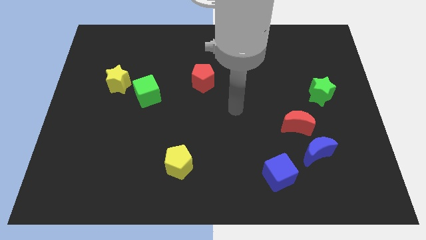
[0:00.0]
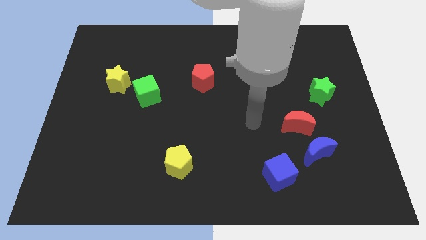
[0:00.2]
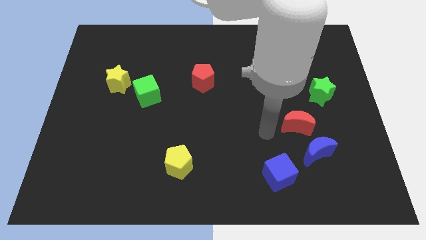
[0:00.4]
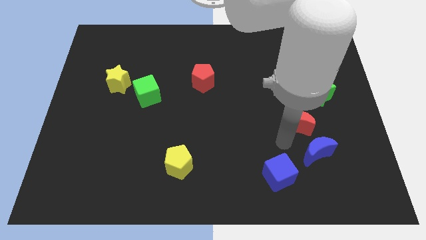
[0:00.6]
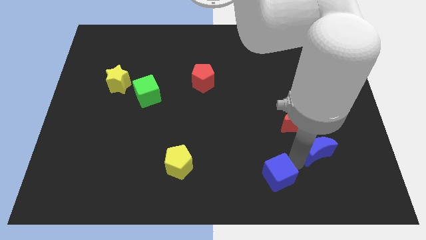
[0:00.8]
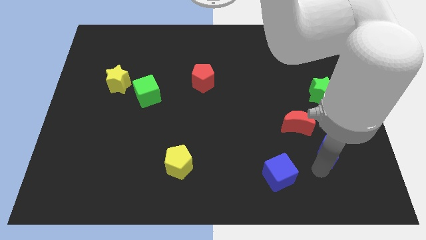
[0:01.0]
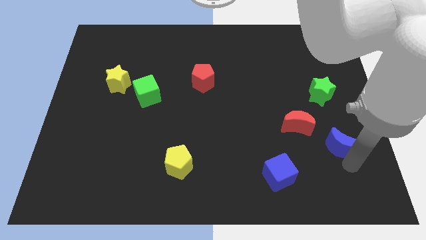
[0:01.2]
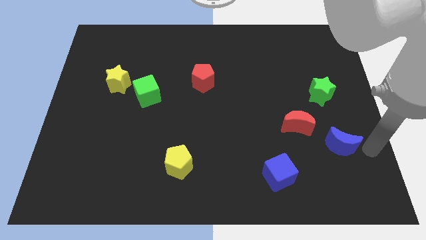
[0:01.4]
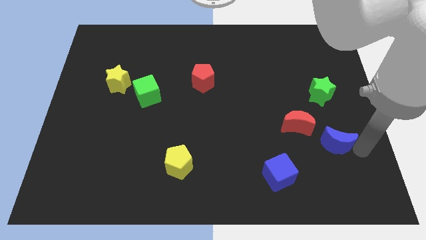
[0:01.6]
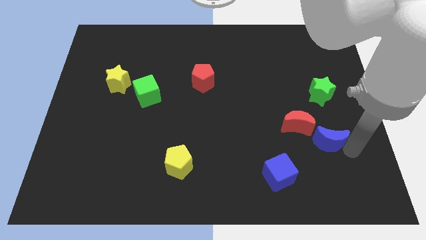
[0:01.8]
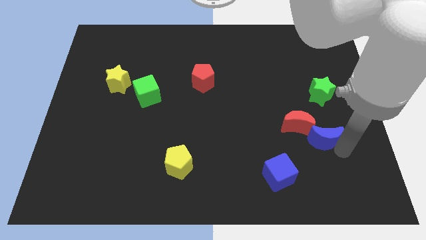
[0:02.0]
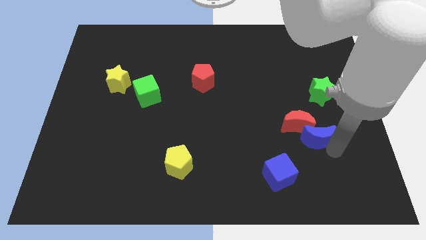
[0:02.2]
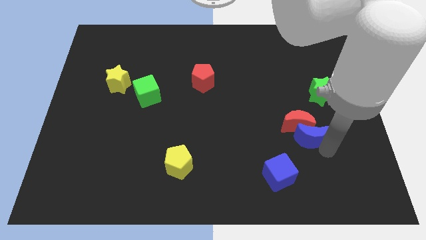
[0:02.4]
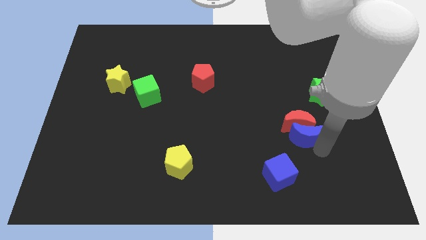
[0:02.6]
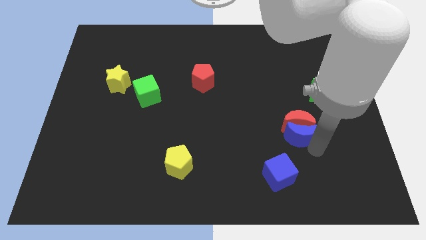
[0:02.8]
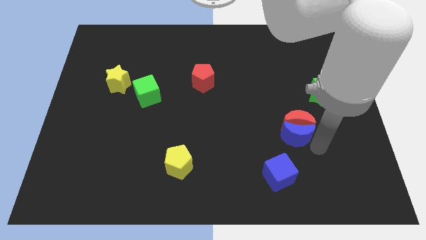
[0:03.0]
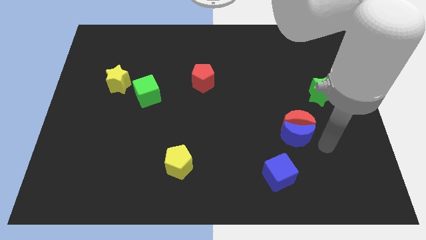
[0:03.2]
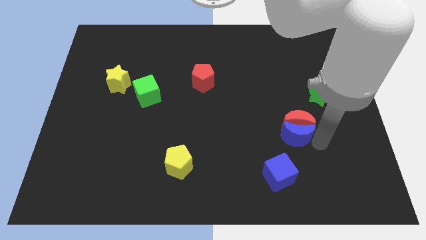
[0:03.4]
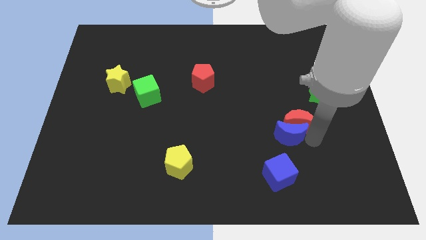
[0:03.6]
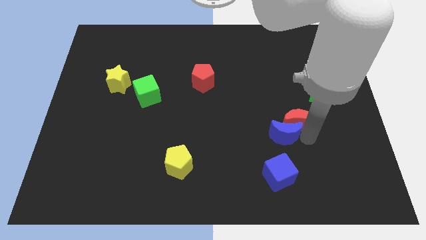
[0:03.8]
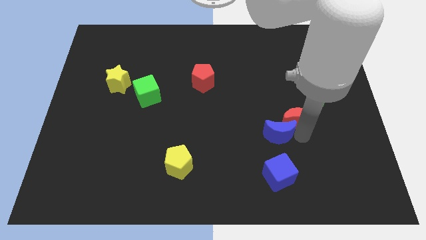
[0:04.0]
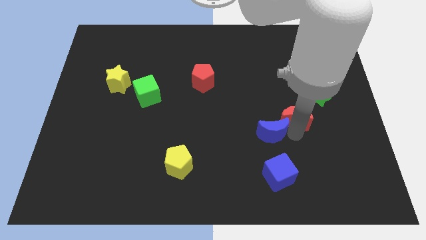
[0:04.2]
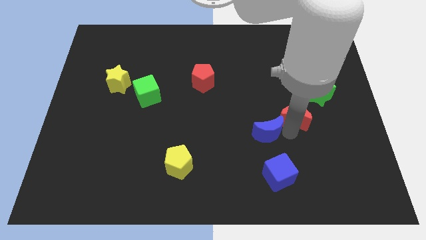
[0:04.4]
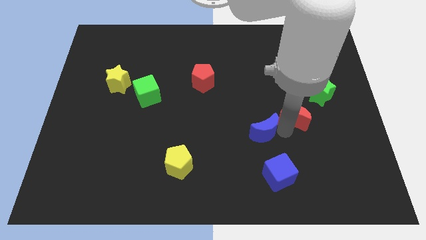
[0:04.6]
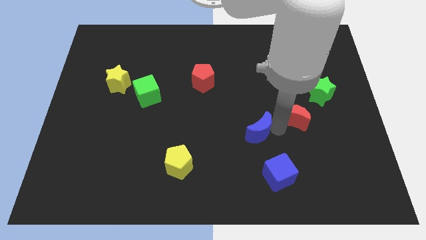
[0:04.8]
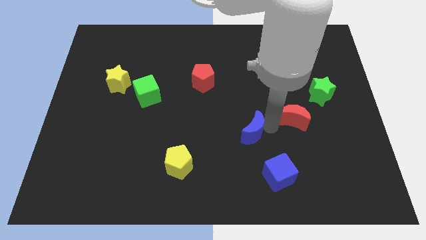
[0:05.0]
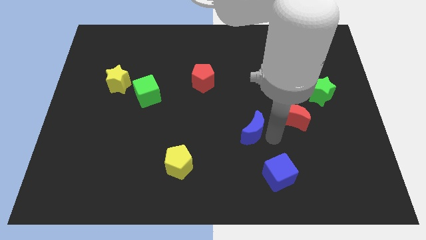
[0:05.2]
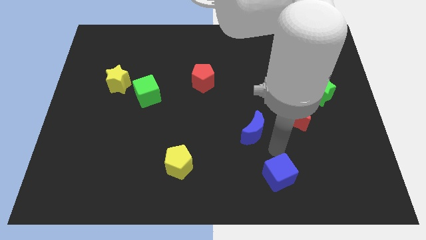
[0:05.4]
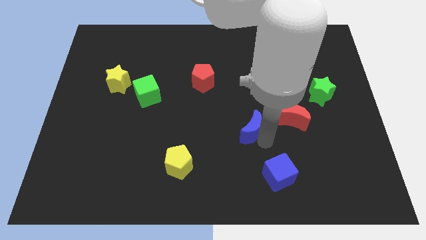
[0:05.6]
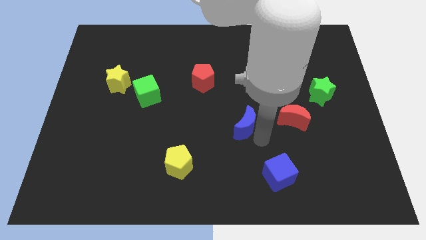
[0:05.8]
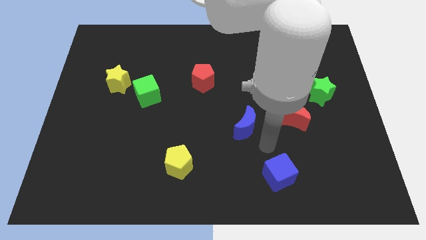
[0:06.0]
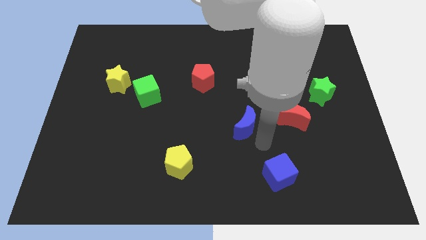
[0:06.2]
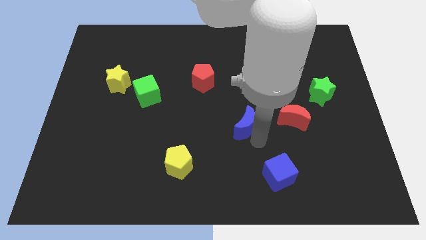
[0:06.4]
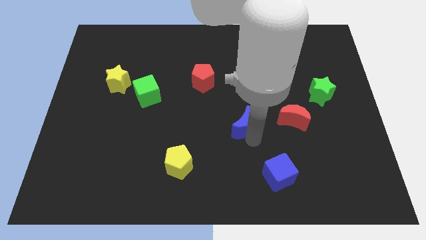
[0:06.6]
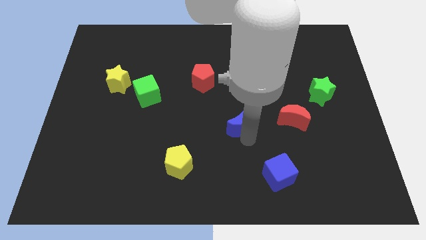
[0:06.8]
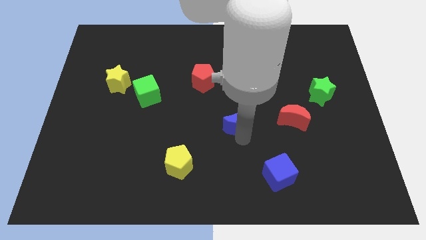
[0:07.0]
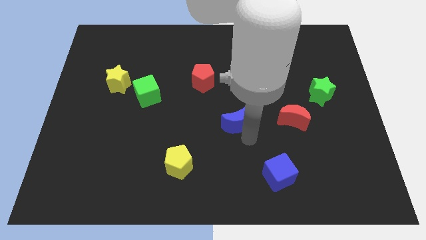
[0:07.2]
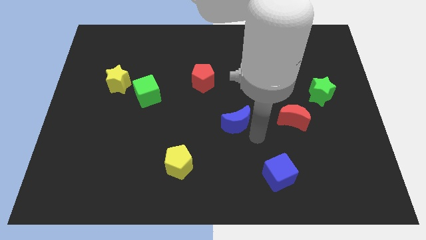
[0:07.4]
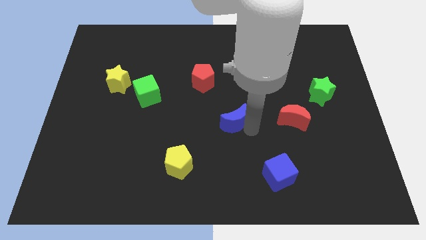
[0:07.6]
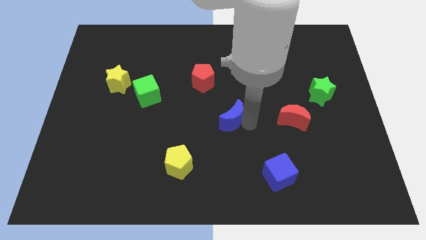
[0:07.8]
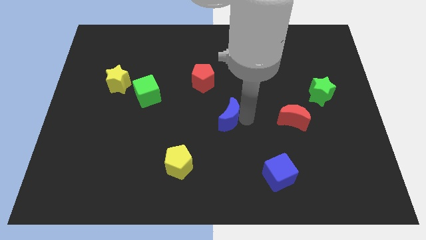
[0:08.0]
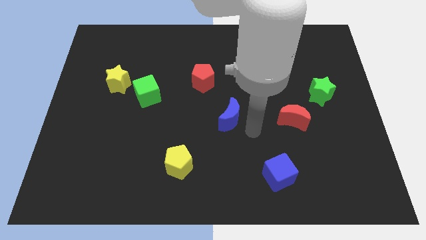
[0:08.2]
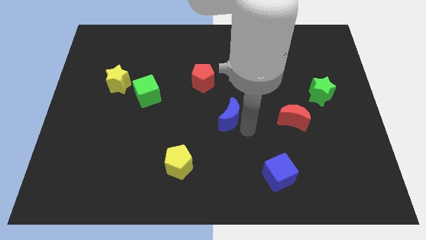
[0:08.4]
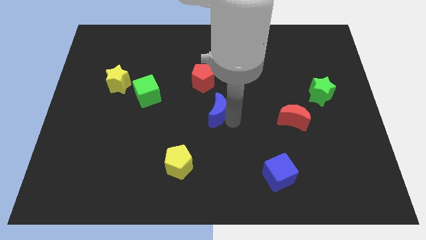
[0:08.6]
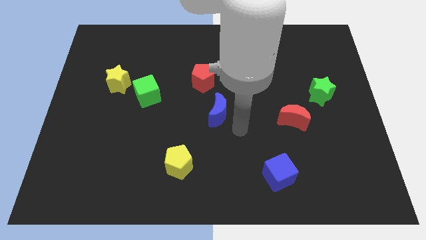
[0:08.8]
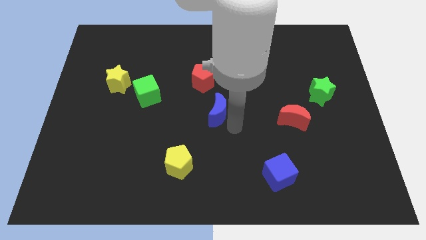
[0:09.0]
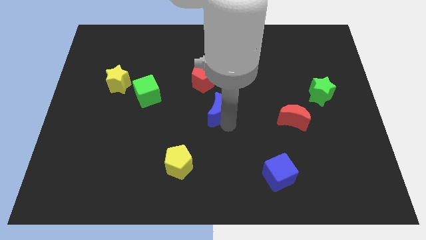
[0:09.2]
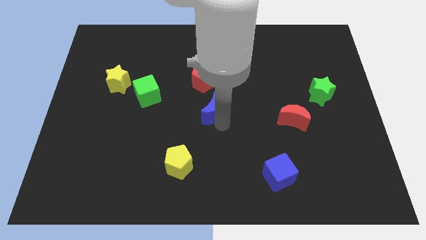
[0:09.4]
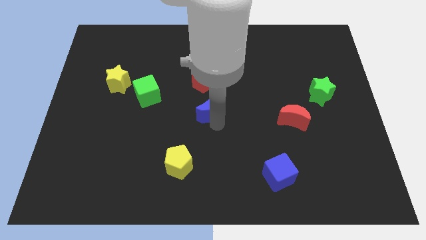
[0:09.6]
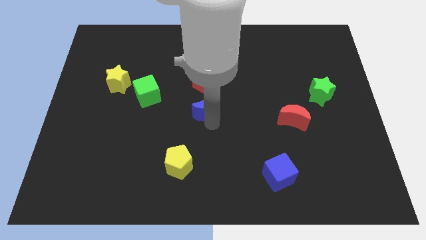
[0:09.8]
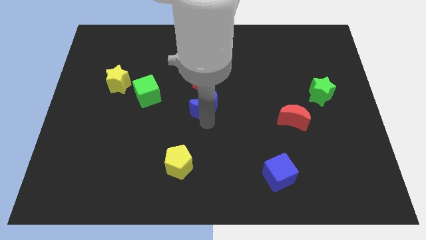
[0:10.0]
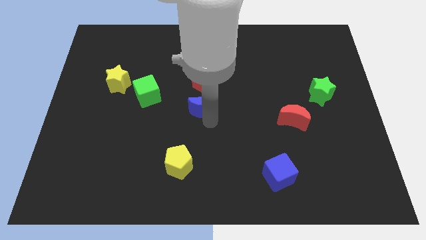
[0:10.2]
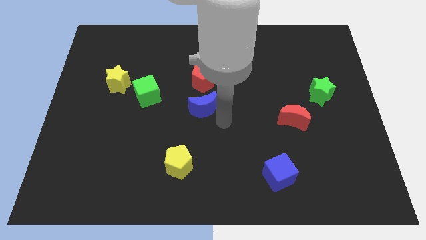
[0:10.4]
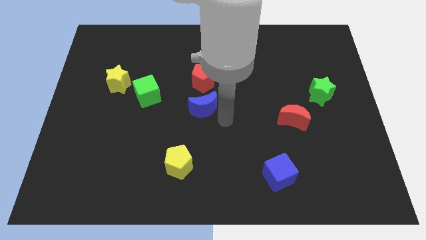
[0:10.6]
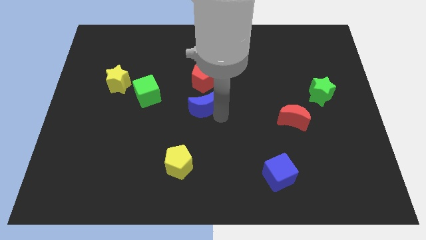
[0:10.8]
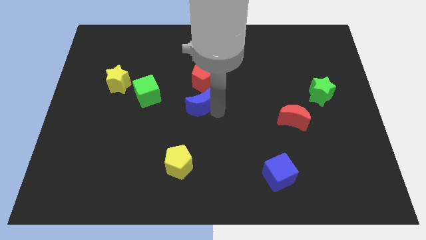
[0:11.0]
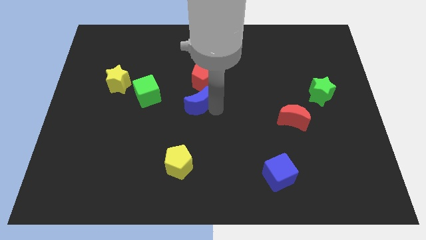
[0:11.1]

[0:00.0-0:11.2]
slide the blue moon diagonally down and to the left of the red pentagon

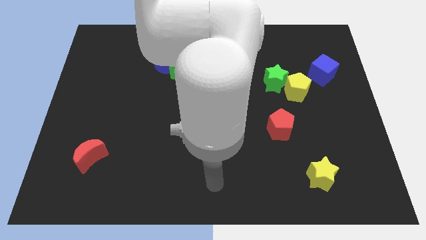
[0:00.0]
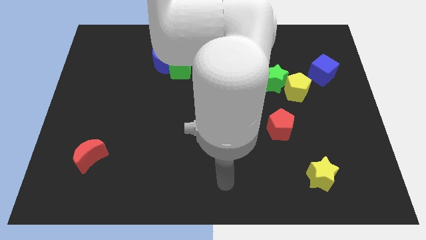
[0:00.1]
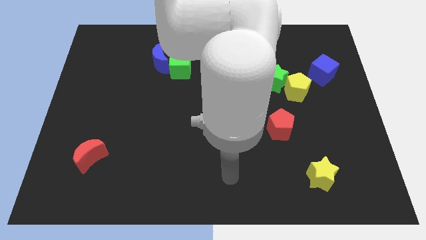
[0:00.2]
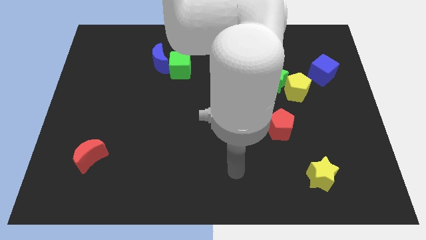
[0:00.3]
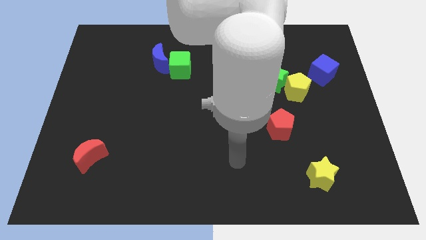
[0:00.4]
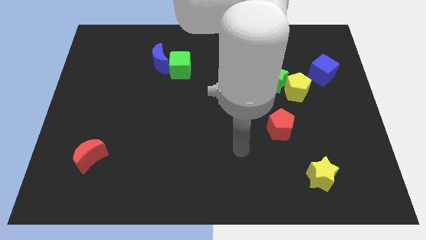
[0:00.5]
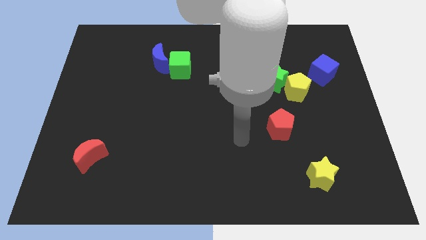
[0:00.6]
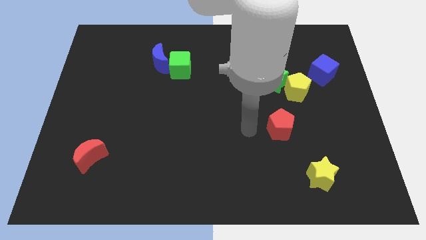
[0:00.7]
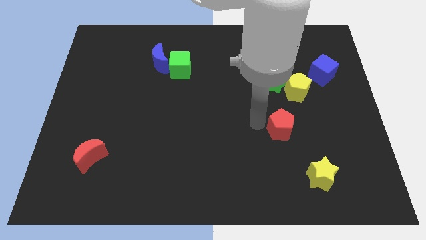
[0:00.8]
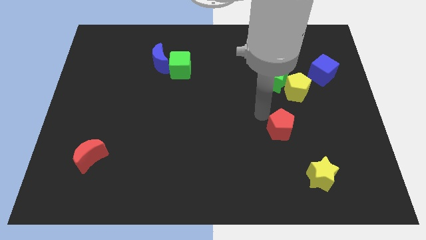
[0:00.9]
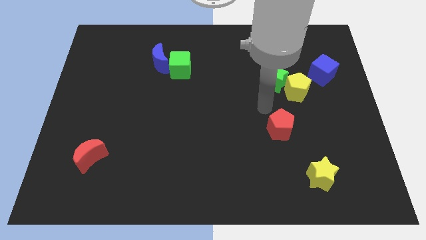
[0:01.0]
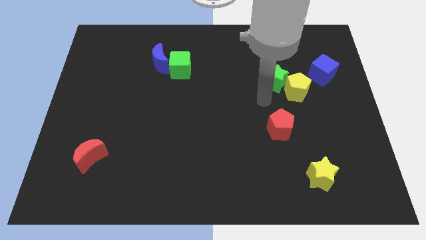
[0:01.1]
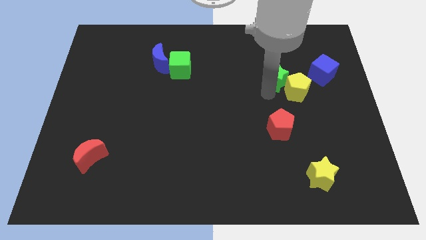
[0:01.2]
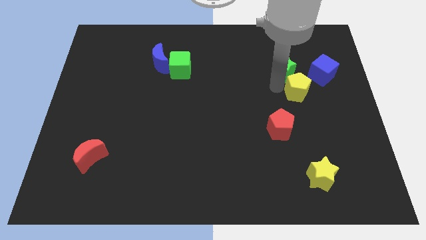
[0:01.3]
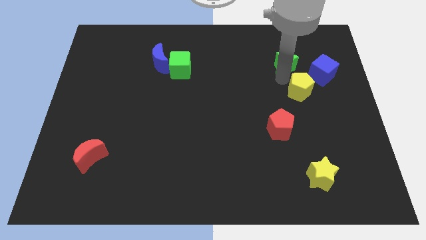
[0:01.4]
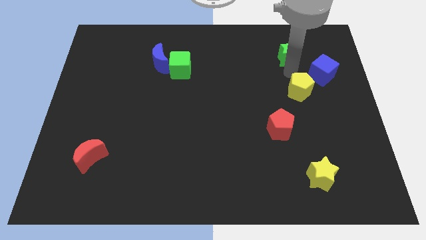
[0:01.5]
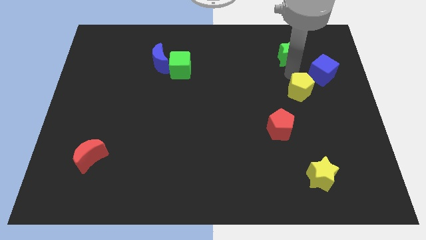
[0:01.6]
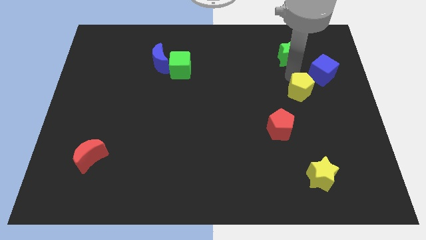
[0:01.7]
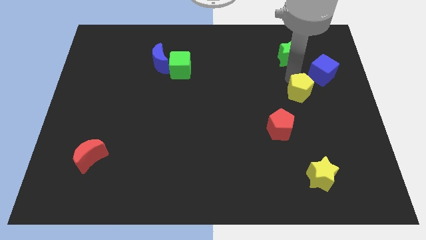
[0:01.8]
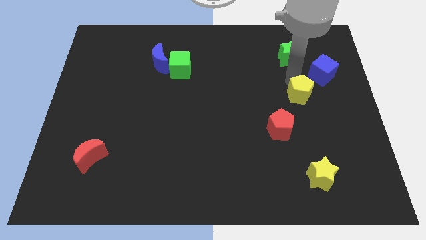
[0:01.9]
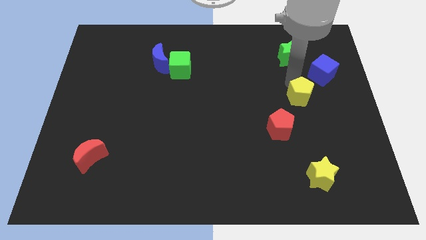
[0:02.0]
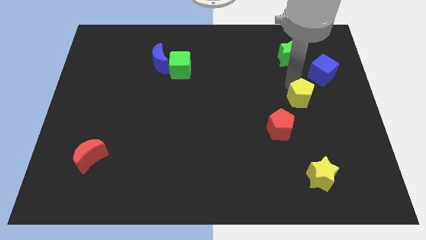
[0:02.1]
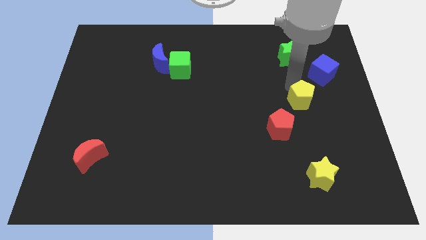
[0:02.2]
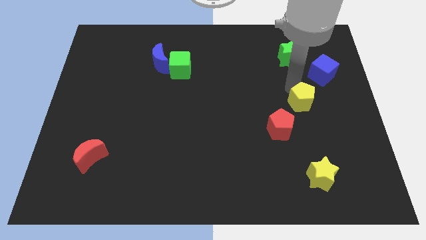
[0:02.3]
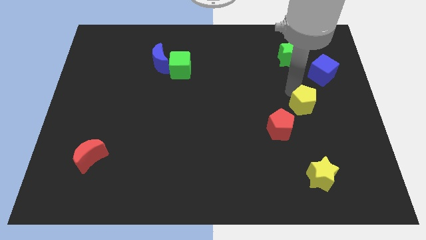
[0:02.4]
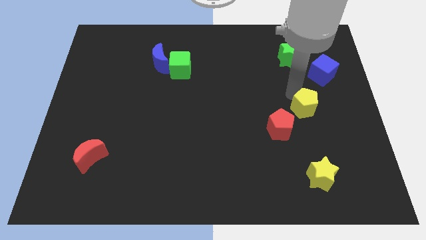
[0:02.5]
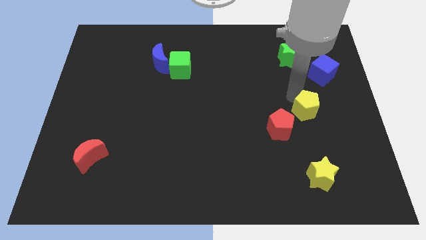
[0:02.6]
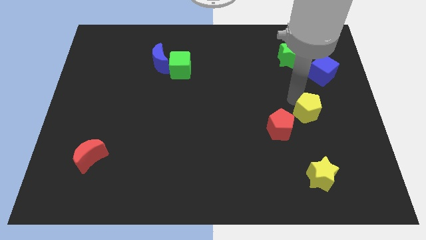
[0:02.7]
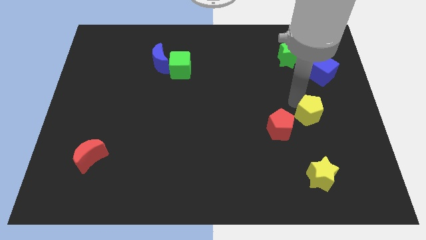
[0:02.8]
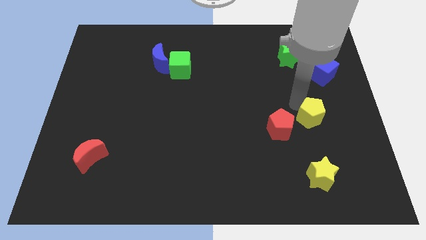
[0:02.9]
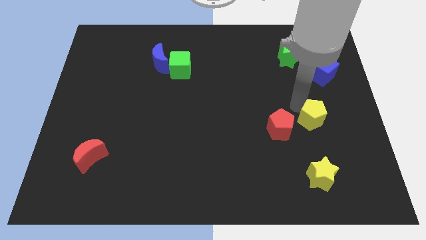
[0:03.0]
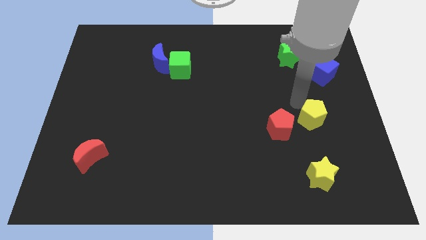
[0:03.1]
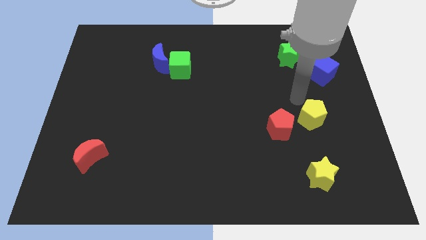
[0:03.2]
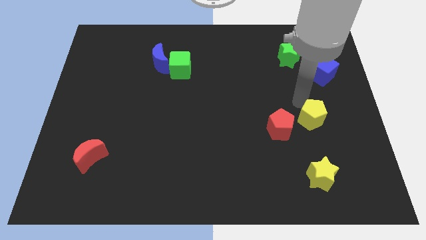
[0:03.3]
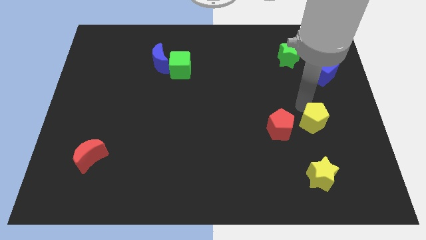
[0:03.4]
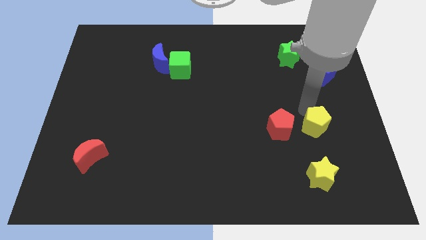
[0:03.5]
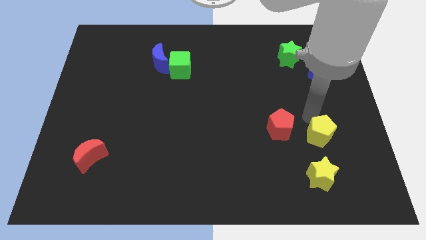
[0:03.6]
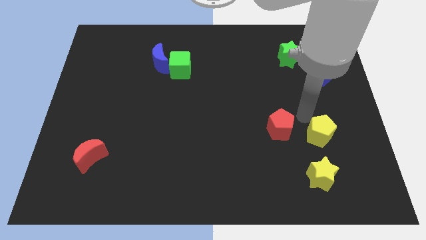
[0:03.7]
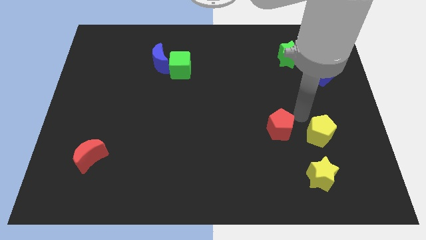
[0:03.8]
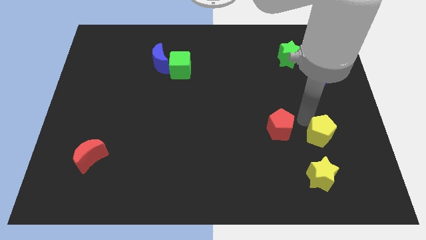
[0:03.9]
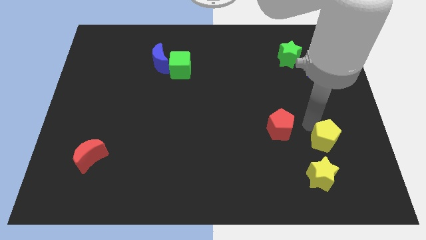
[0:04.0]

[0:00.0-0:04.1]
push the yellow pentagon to the top right of the yellow star
